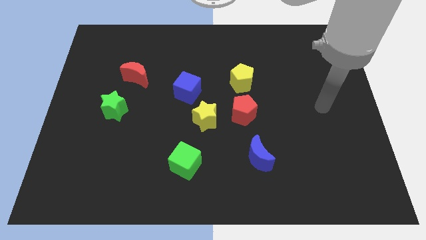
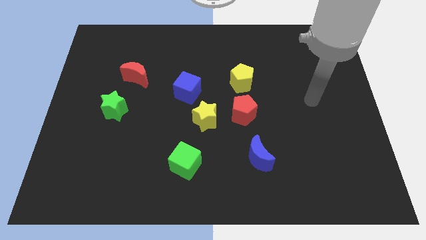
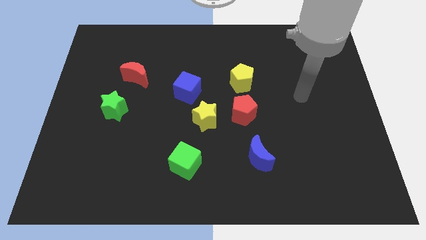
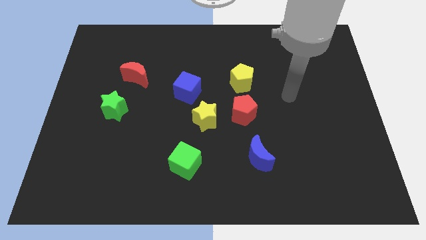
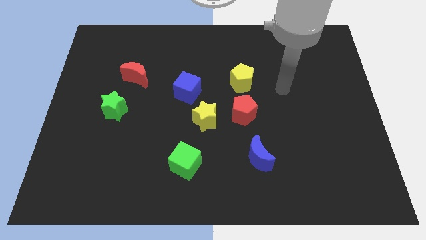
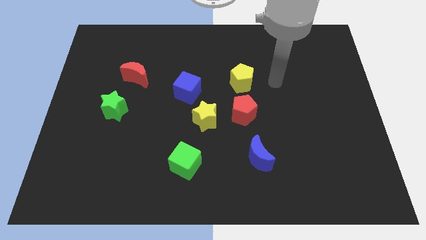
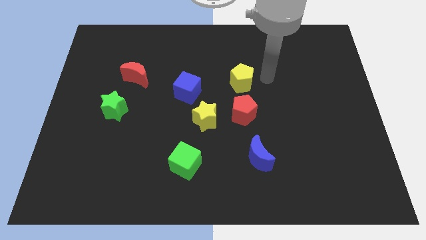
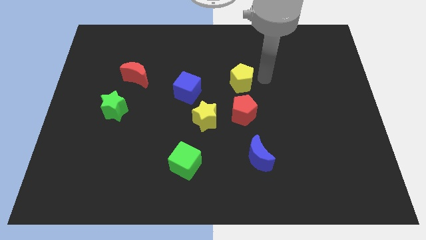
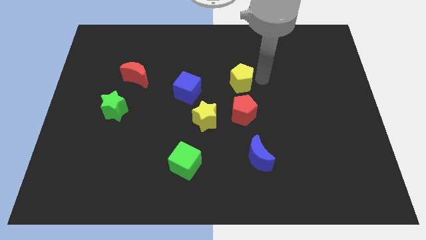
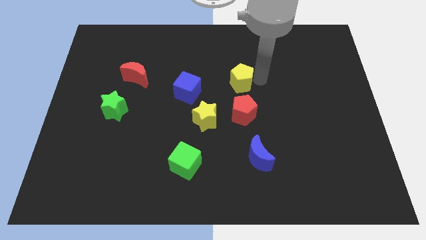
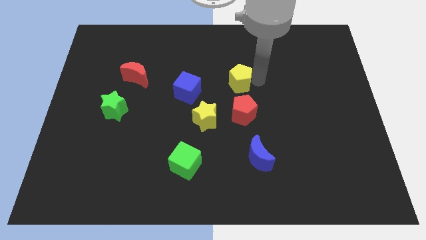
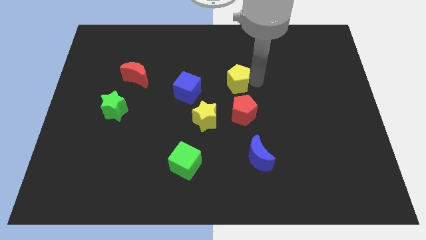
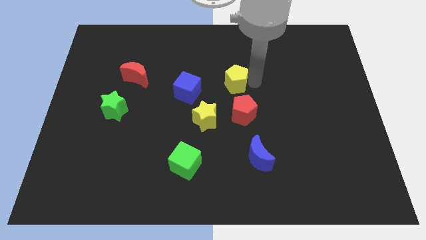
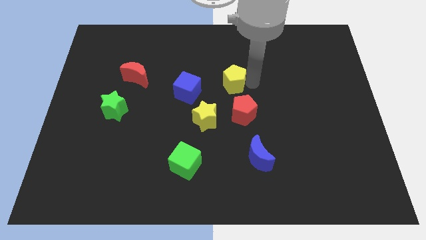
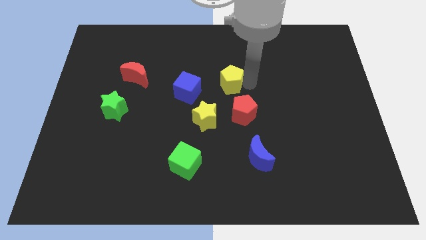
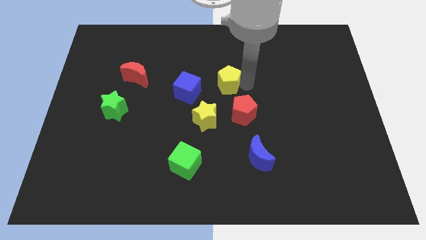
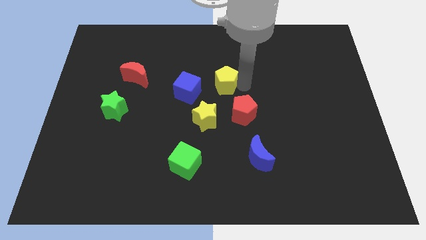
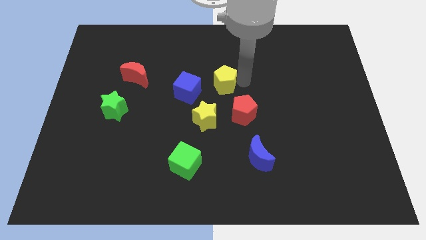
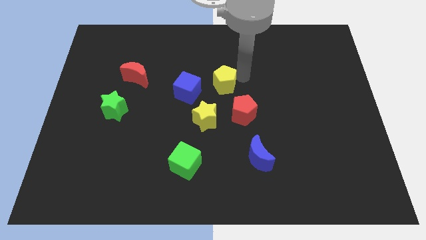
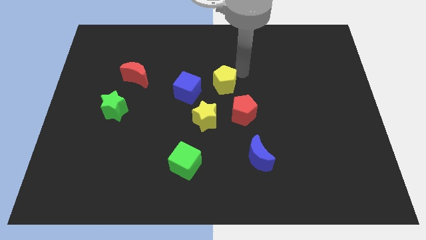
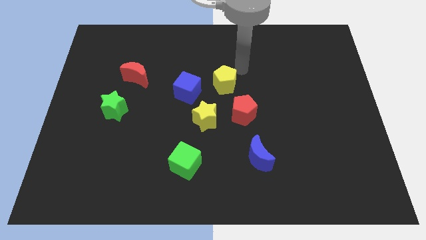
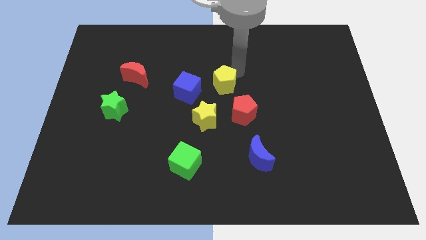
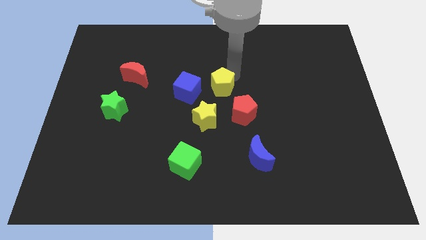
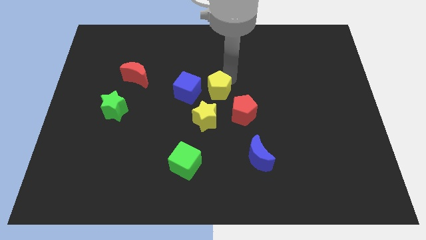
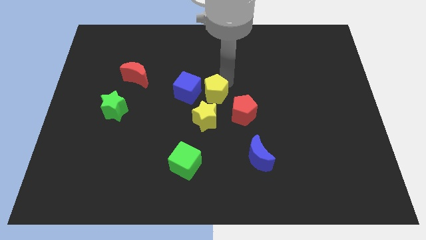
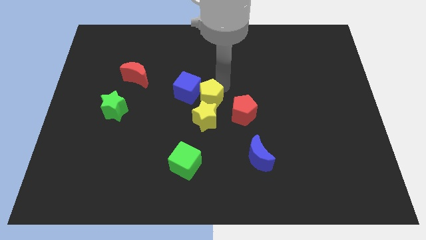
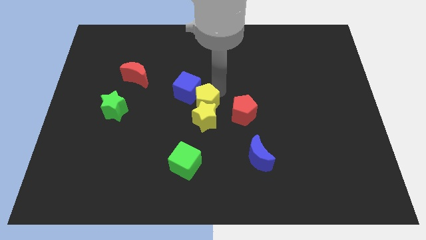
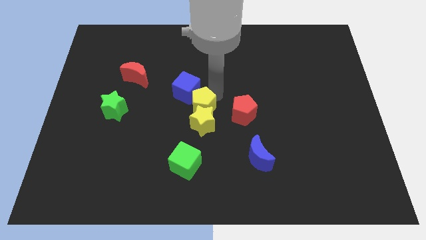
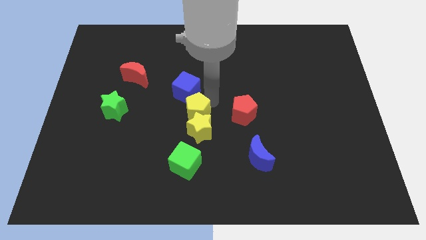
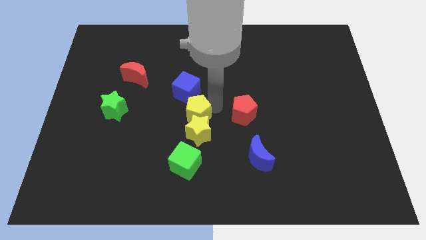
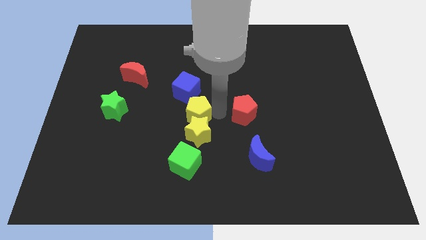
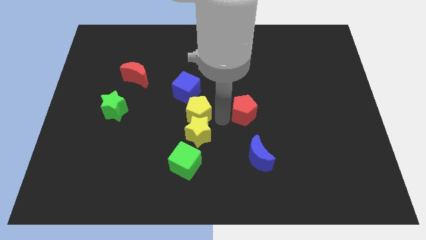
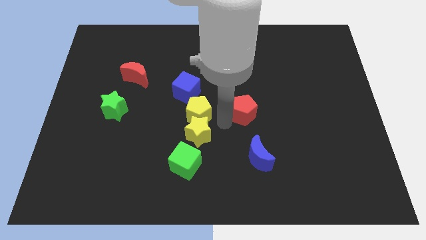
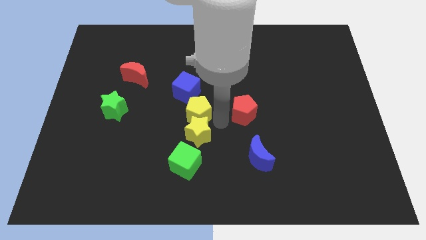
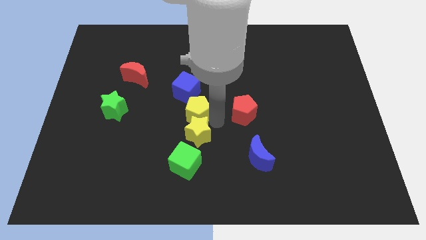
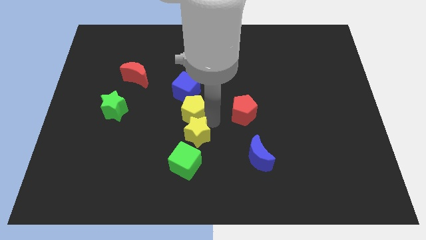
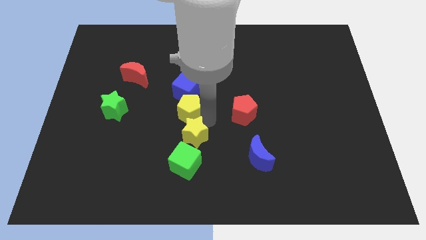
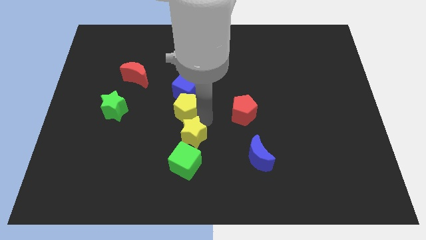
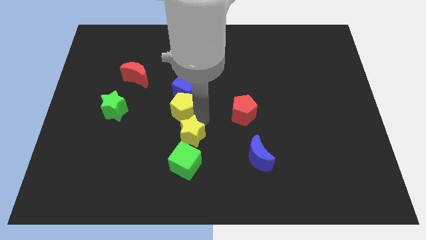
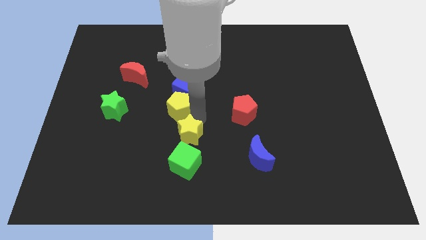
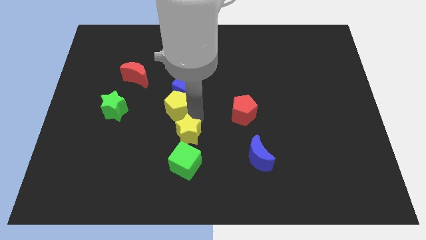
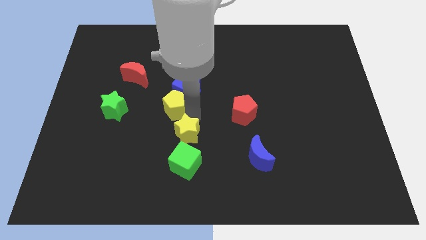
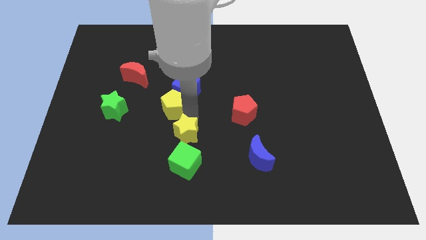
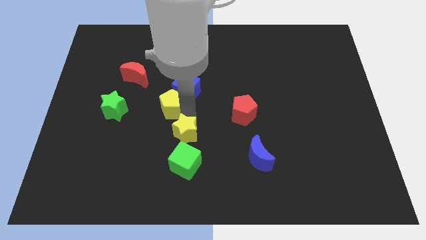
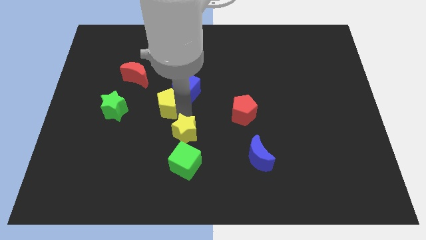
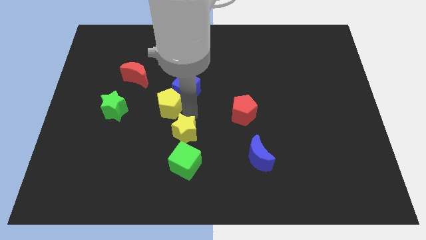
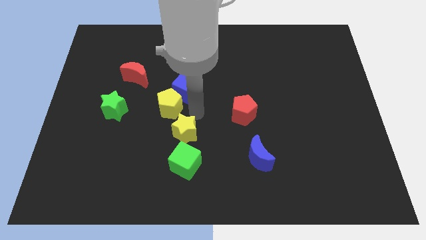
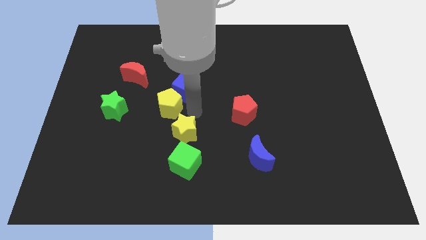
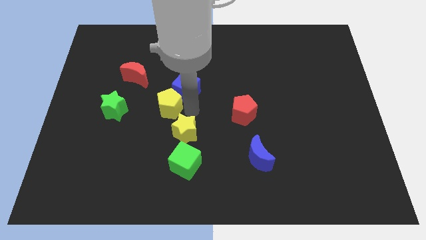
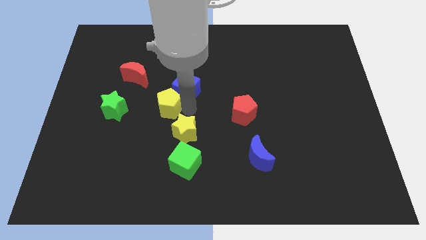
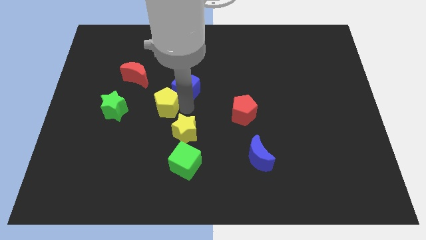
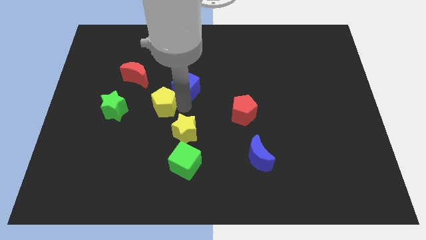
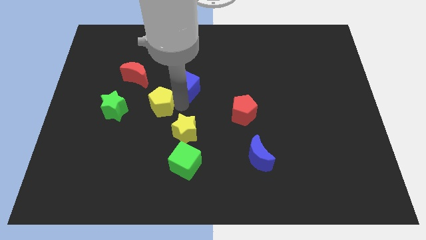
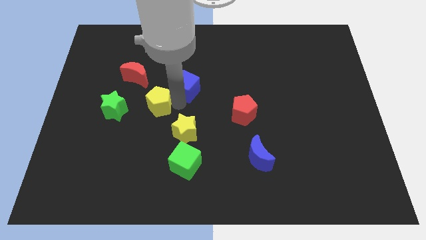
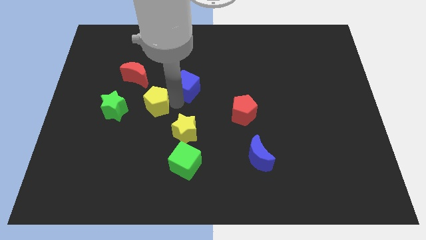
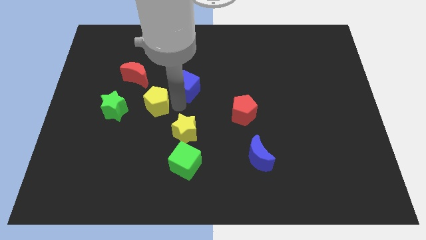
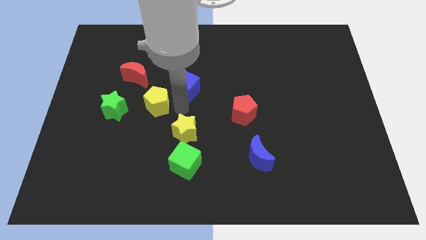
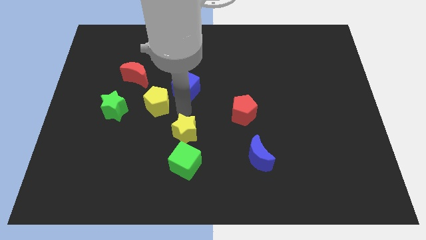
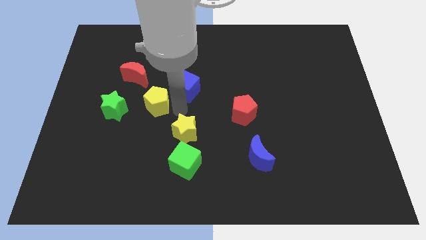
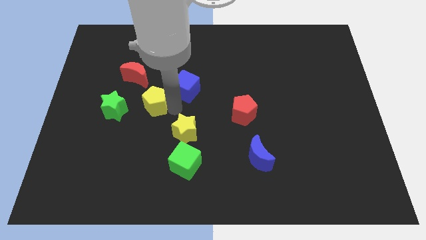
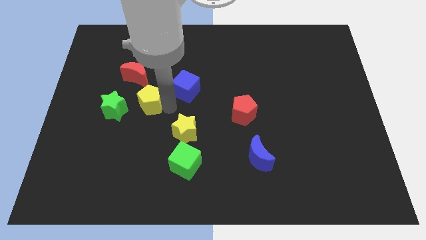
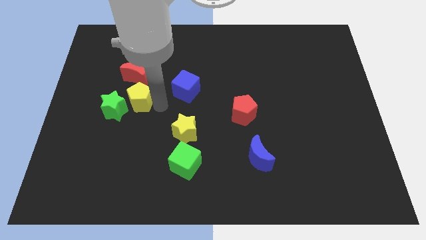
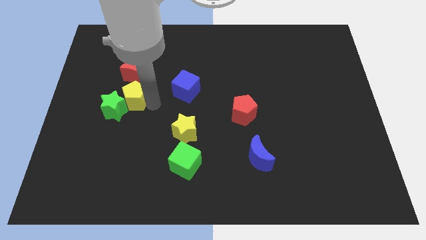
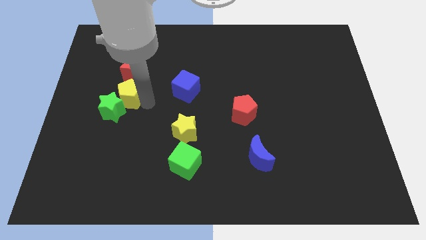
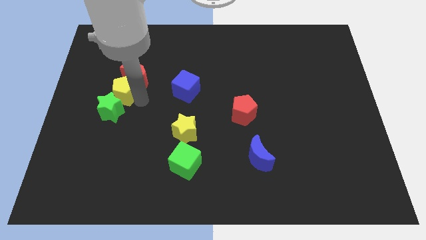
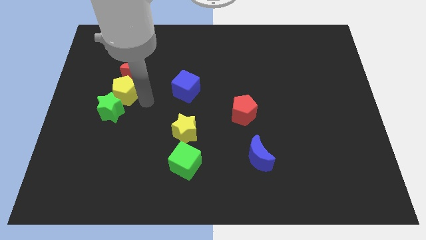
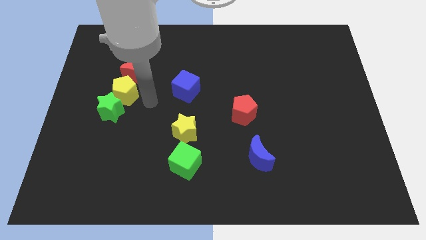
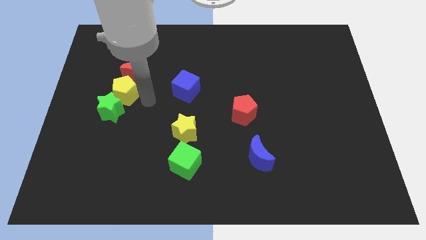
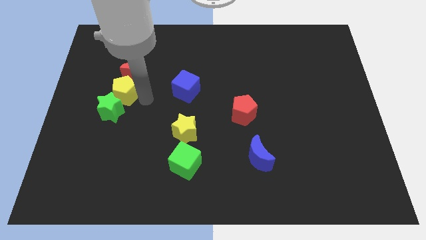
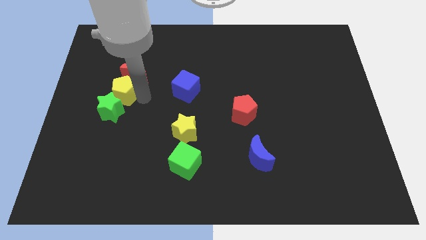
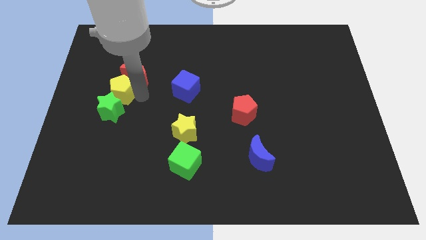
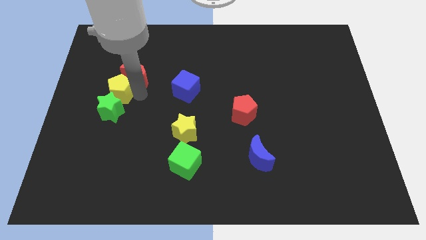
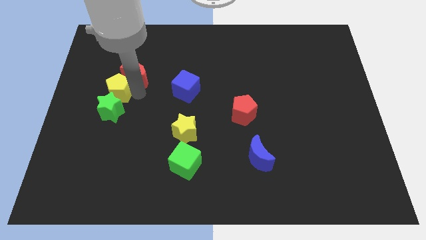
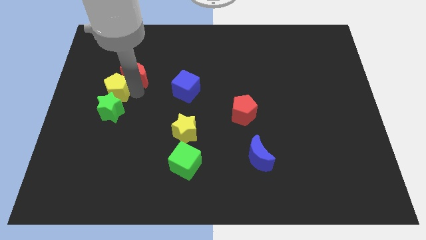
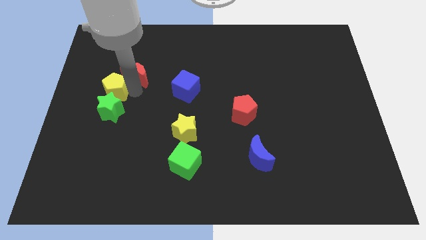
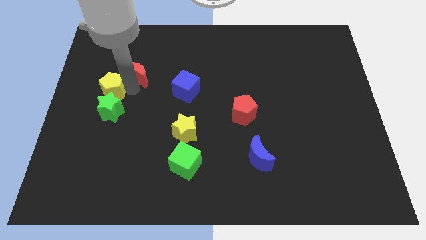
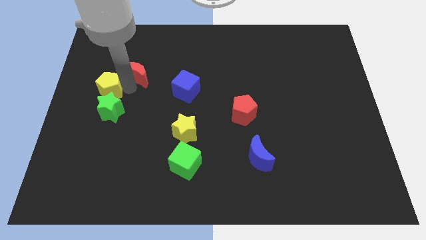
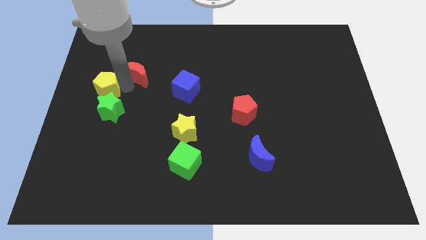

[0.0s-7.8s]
move the yellow pentagon to the left side
